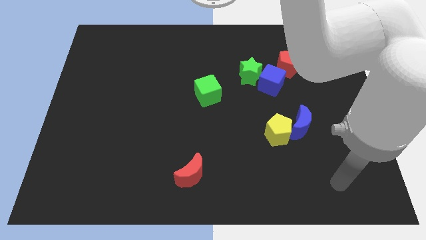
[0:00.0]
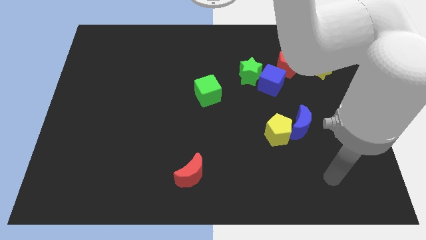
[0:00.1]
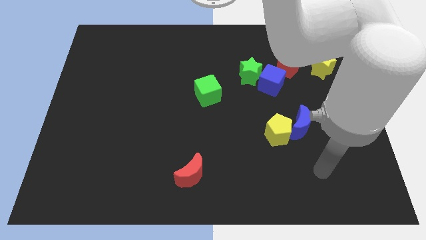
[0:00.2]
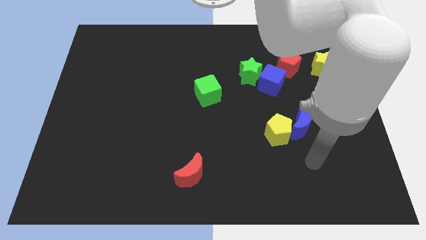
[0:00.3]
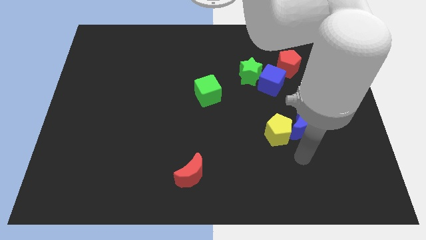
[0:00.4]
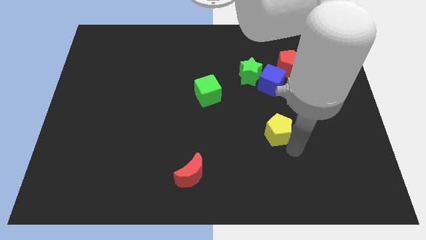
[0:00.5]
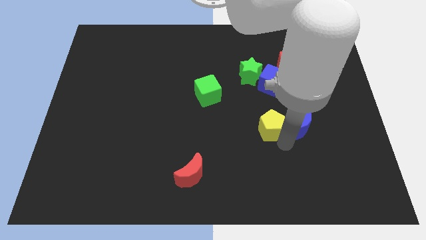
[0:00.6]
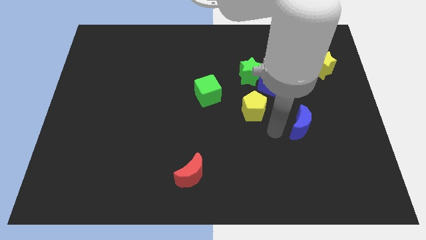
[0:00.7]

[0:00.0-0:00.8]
separate the blue moon from the yellow pentagon

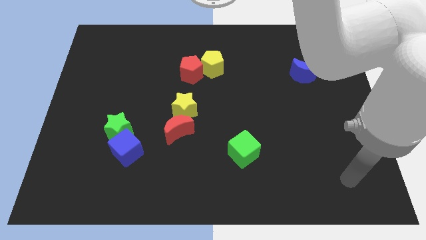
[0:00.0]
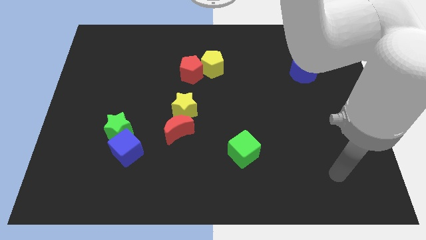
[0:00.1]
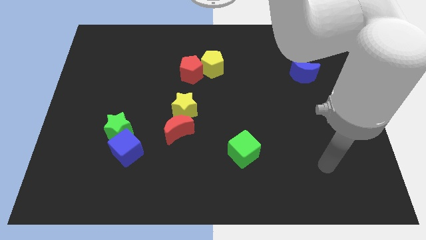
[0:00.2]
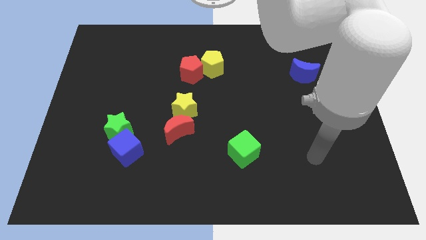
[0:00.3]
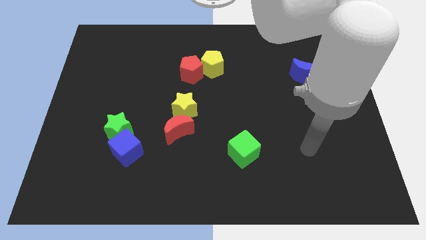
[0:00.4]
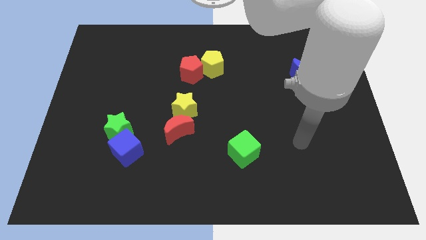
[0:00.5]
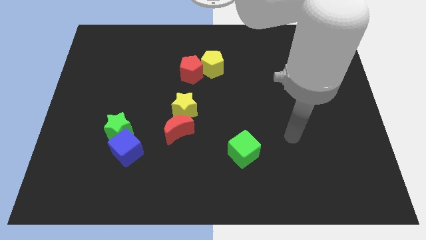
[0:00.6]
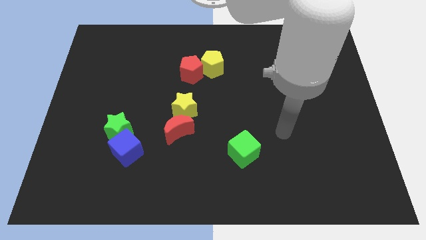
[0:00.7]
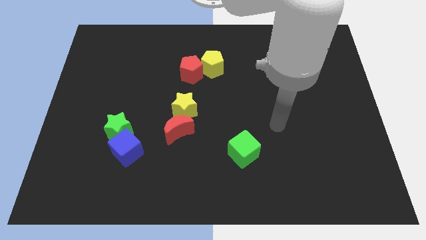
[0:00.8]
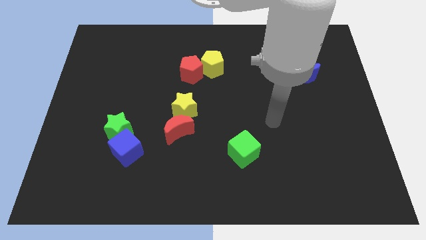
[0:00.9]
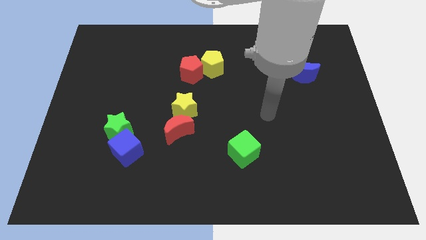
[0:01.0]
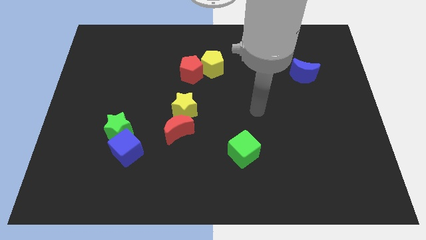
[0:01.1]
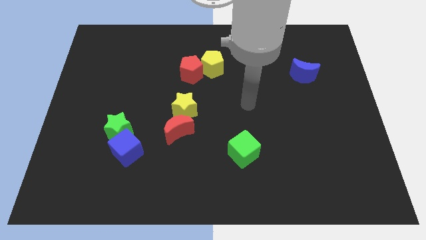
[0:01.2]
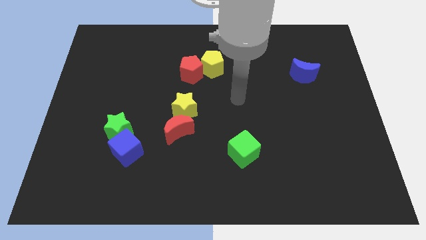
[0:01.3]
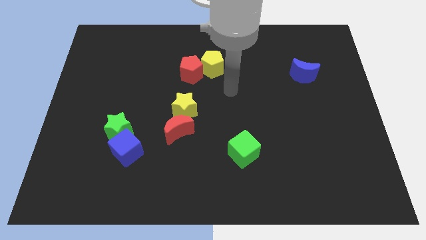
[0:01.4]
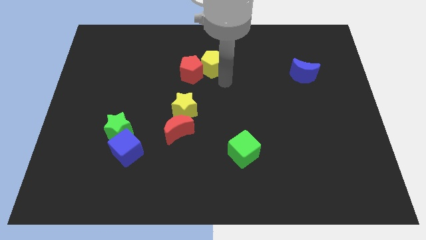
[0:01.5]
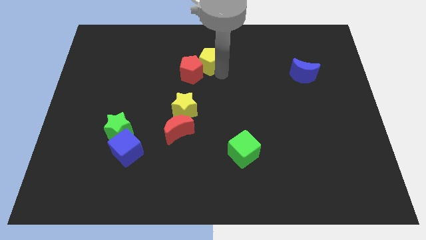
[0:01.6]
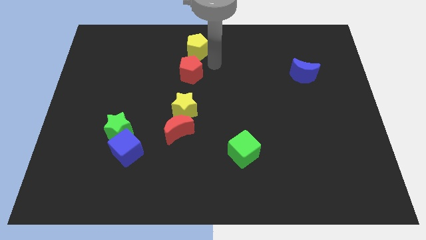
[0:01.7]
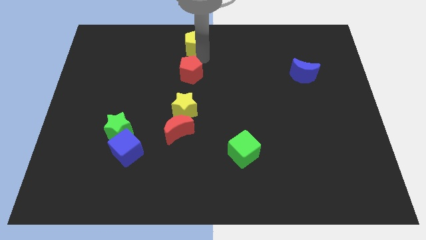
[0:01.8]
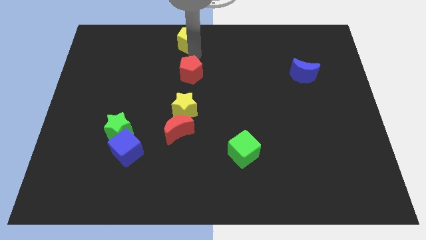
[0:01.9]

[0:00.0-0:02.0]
pull the red pentagon apart from the yellow pentagon

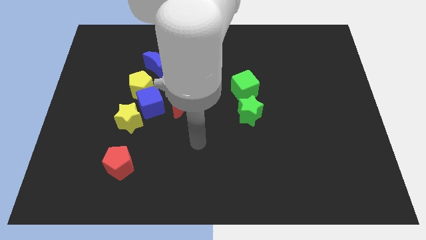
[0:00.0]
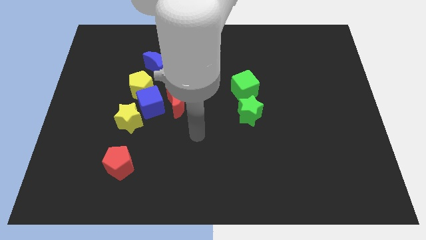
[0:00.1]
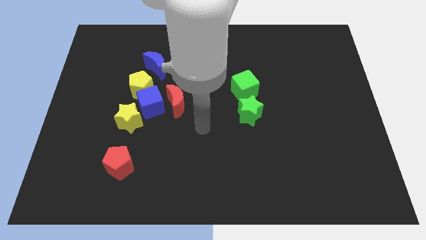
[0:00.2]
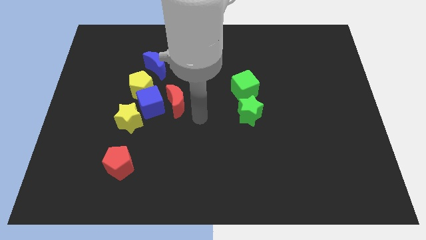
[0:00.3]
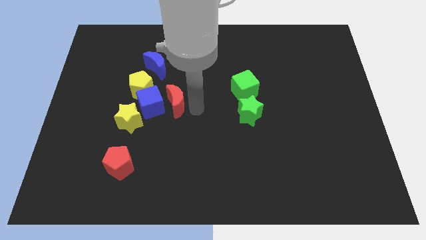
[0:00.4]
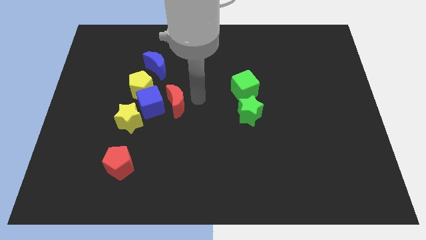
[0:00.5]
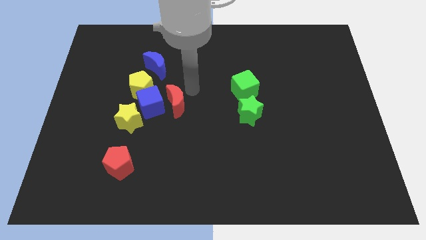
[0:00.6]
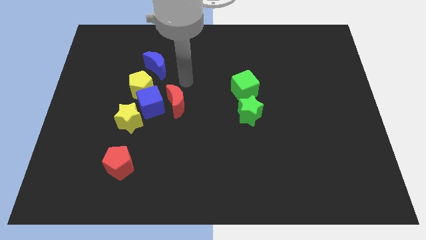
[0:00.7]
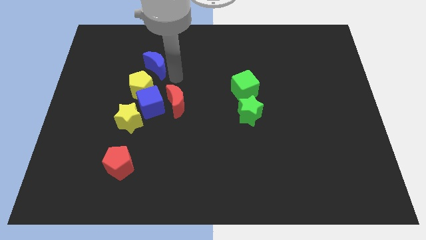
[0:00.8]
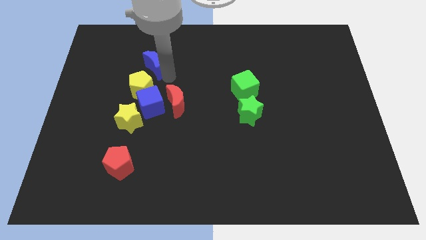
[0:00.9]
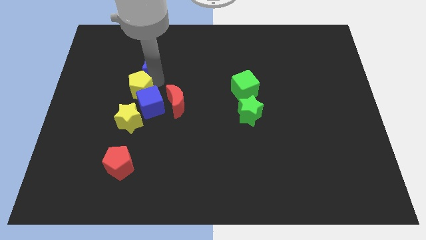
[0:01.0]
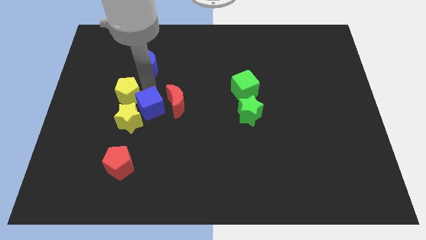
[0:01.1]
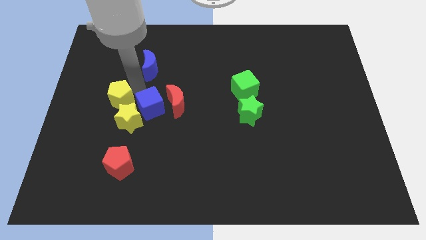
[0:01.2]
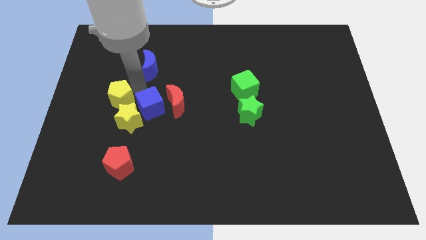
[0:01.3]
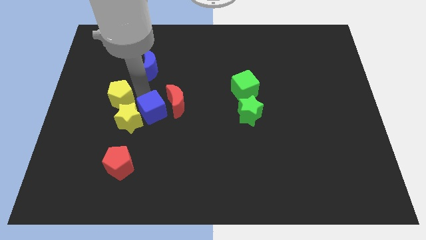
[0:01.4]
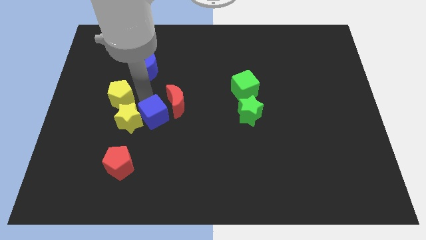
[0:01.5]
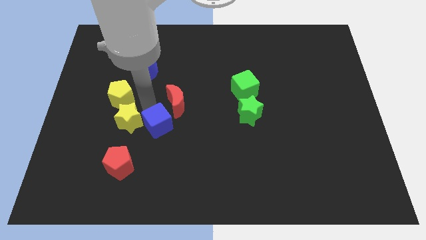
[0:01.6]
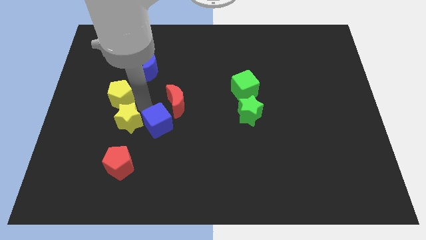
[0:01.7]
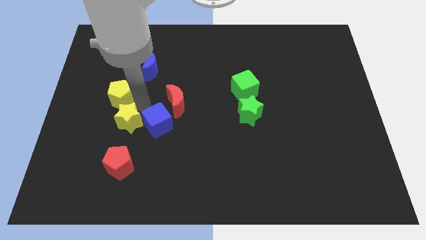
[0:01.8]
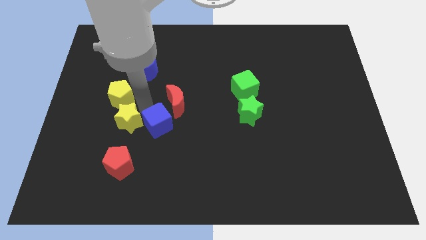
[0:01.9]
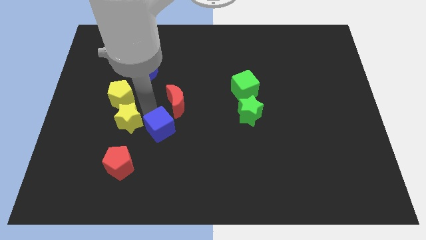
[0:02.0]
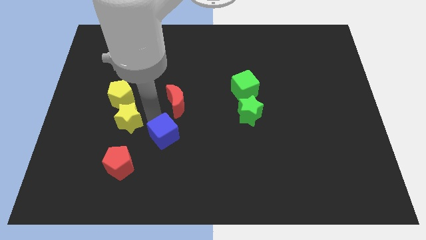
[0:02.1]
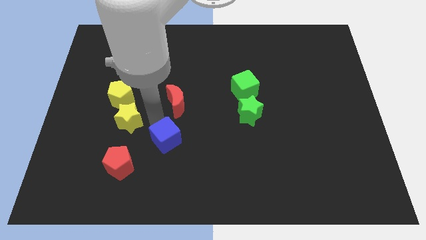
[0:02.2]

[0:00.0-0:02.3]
pull the blue cube apart from the group

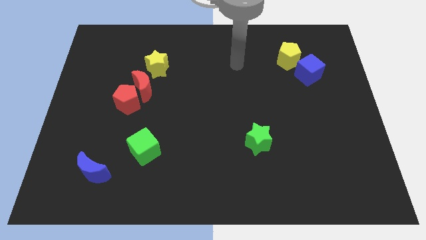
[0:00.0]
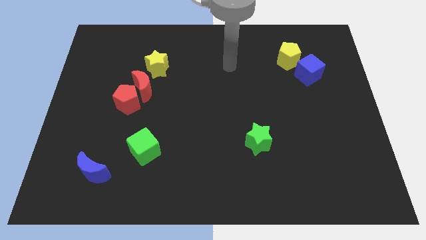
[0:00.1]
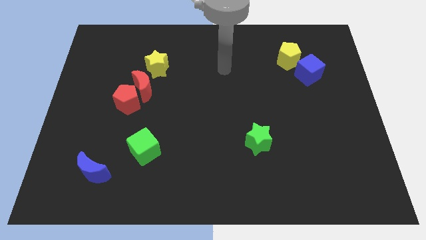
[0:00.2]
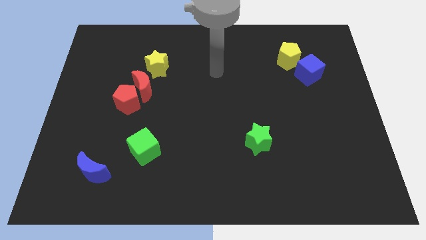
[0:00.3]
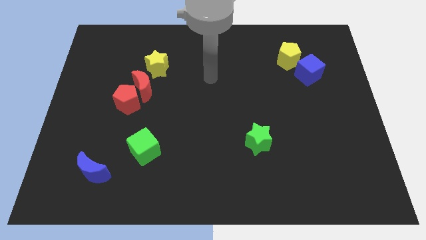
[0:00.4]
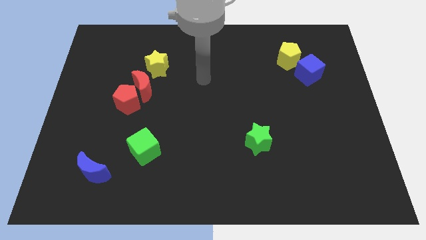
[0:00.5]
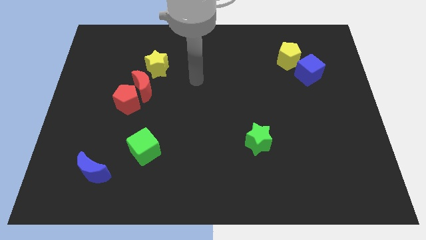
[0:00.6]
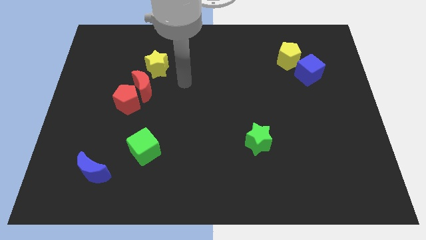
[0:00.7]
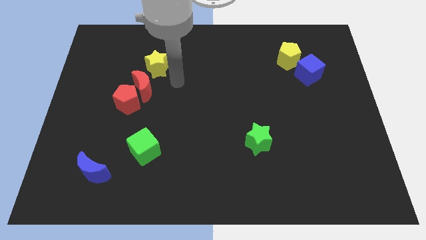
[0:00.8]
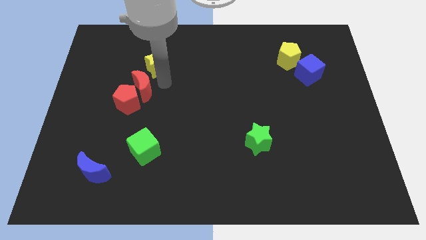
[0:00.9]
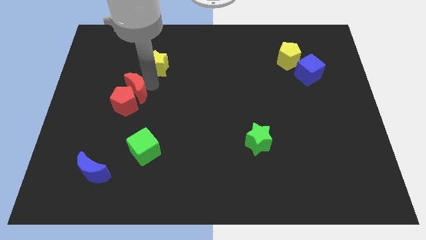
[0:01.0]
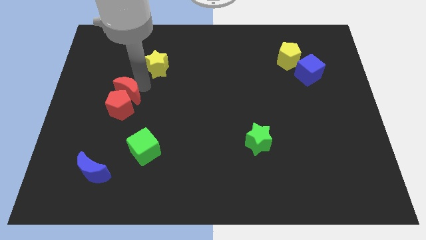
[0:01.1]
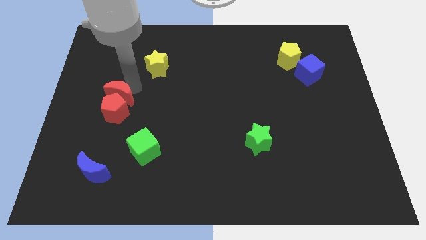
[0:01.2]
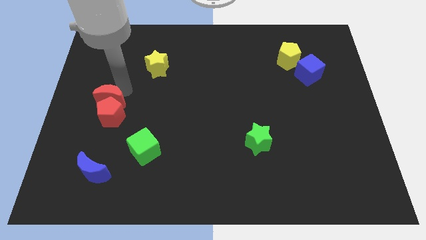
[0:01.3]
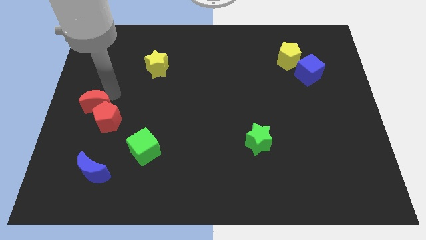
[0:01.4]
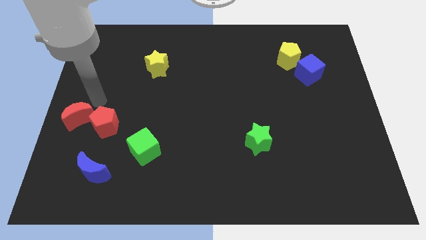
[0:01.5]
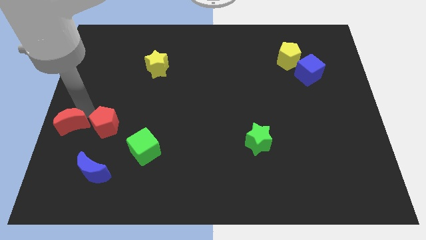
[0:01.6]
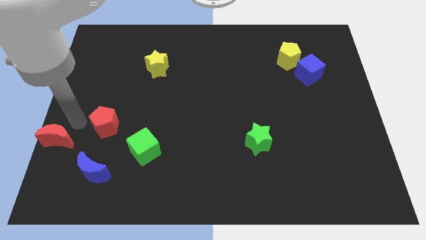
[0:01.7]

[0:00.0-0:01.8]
pull the red pentagon apart from the red moon

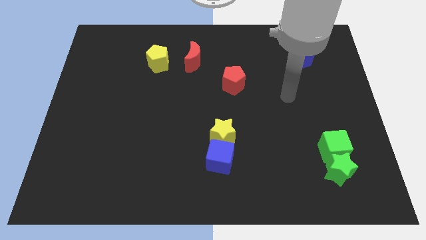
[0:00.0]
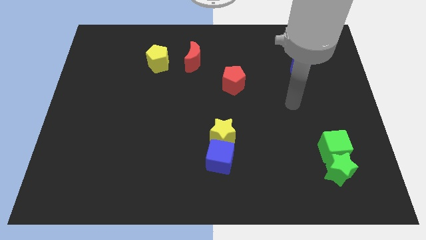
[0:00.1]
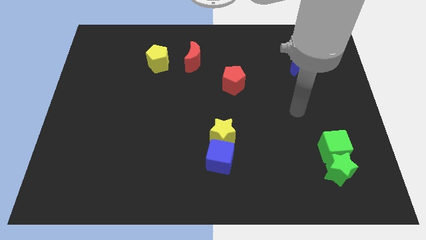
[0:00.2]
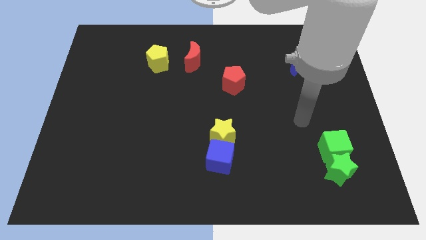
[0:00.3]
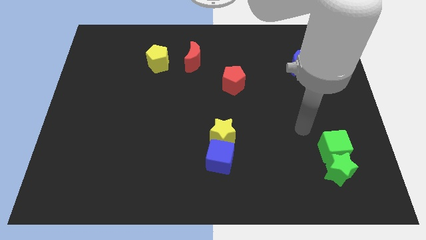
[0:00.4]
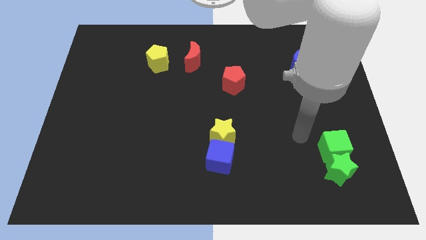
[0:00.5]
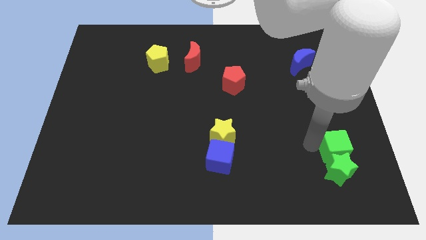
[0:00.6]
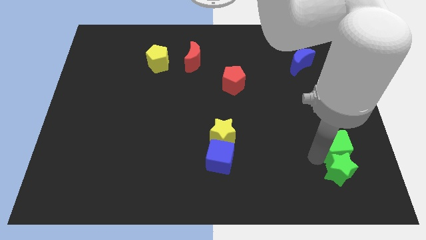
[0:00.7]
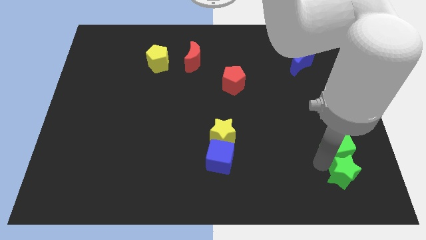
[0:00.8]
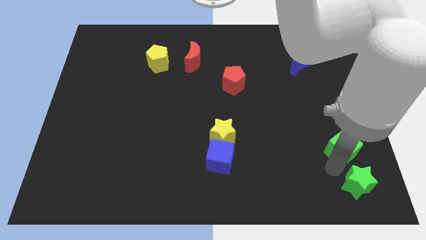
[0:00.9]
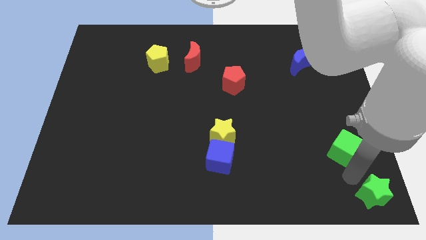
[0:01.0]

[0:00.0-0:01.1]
pull the green cube apart from the green star

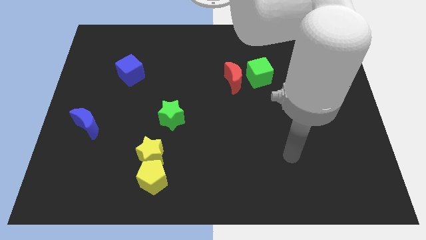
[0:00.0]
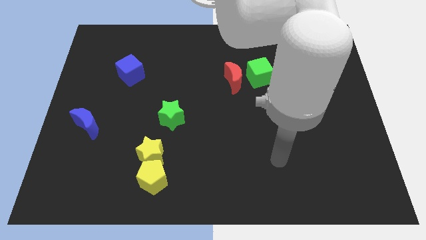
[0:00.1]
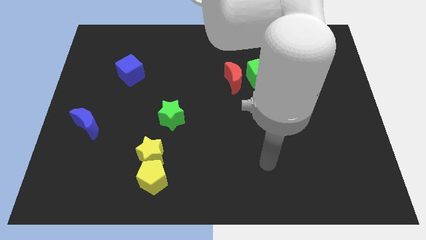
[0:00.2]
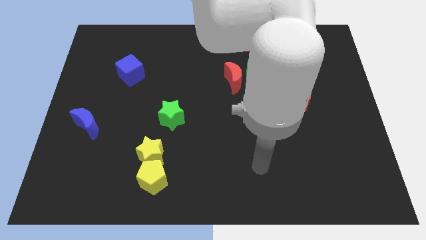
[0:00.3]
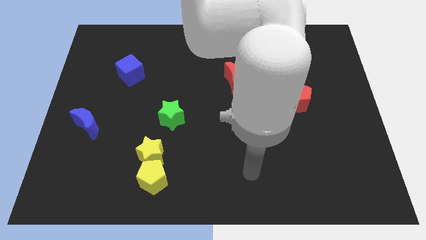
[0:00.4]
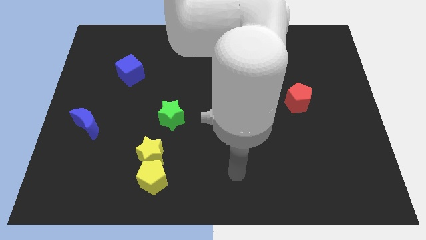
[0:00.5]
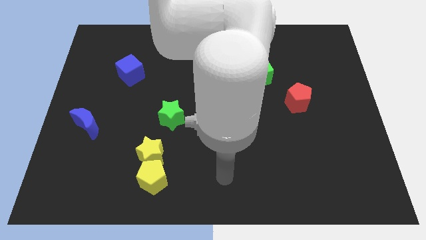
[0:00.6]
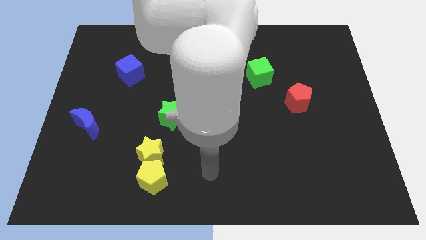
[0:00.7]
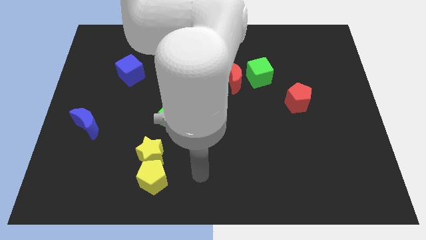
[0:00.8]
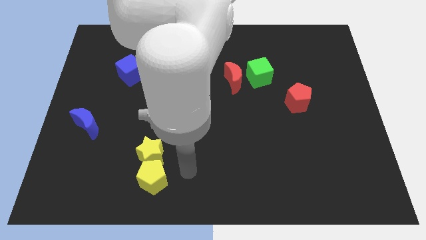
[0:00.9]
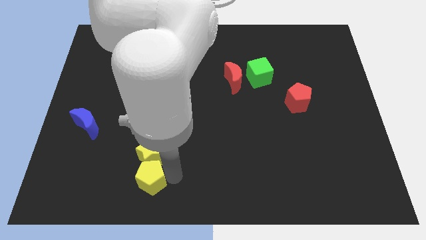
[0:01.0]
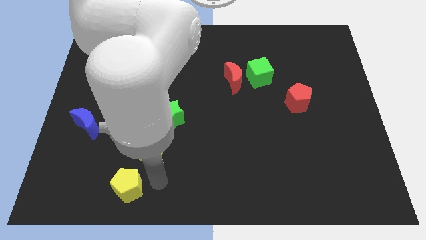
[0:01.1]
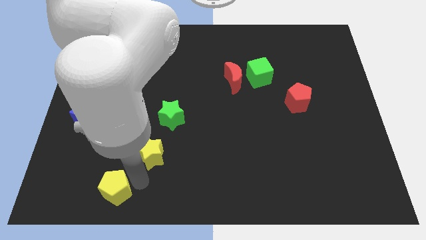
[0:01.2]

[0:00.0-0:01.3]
separate the yellow star from the yellow pentagon
